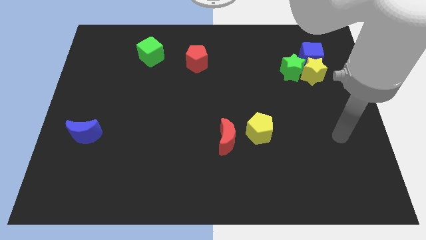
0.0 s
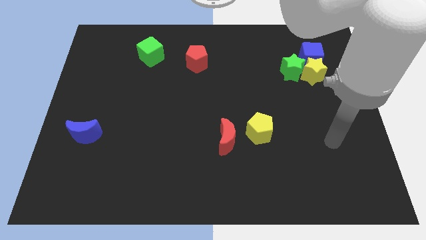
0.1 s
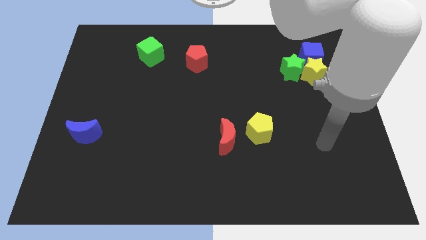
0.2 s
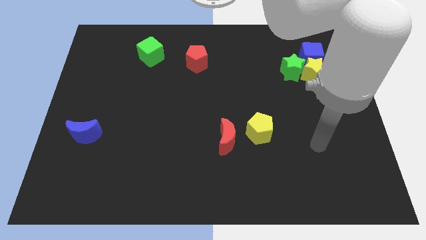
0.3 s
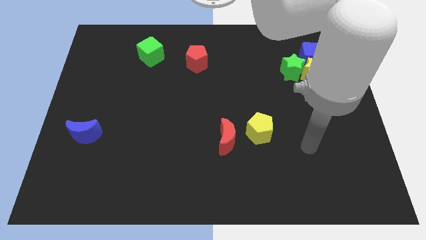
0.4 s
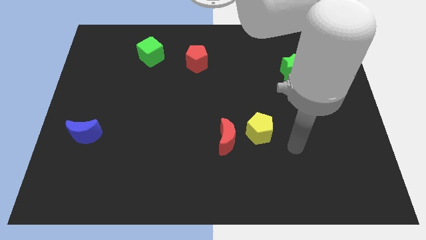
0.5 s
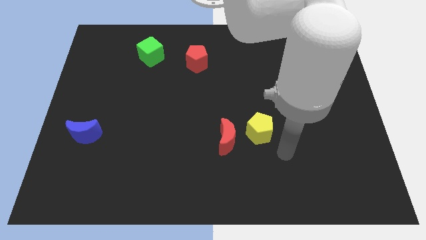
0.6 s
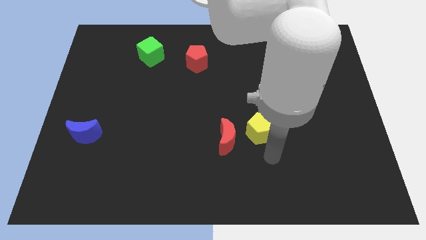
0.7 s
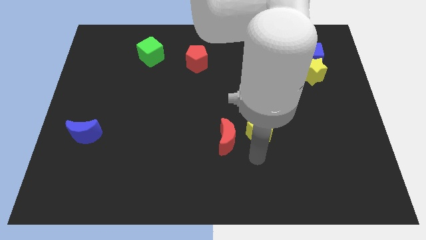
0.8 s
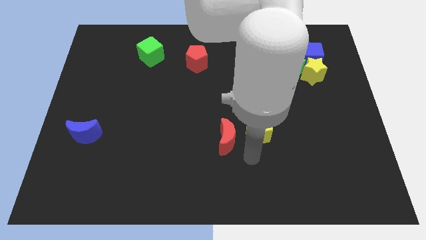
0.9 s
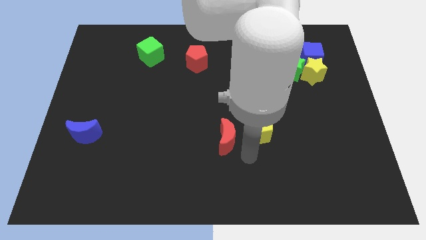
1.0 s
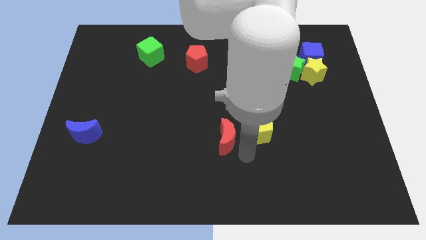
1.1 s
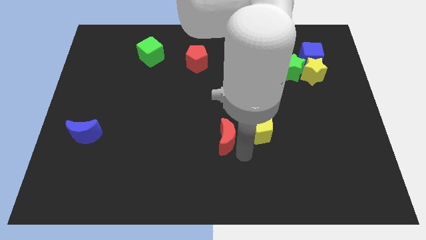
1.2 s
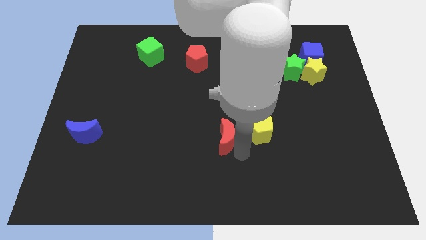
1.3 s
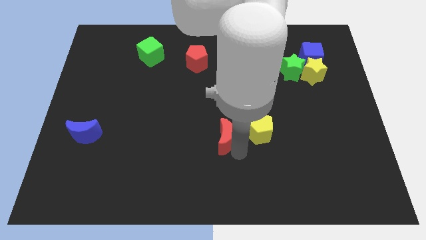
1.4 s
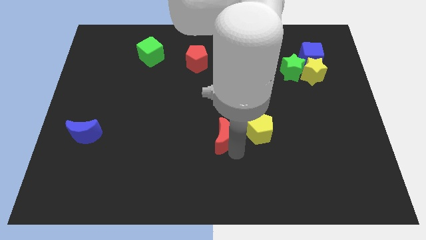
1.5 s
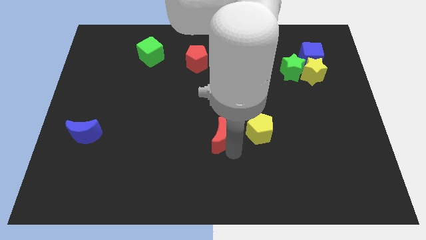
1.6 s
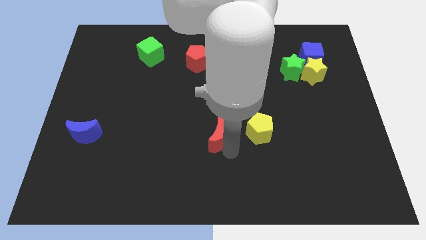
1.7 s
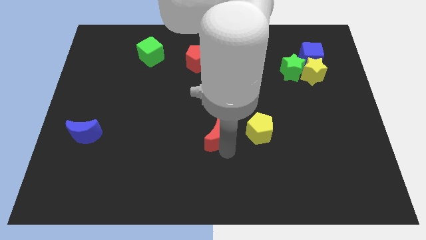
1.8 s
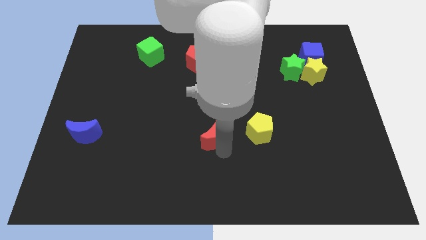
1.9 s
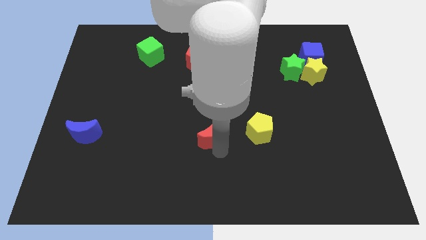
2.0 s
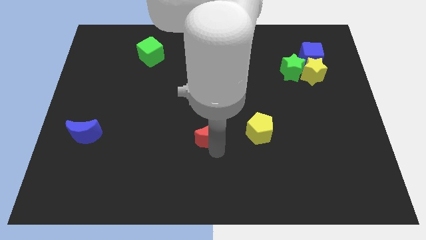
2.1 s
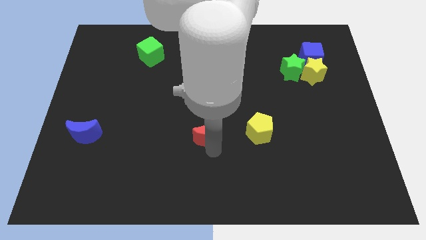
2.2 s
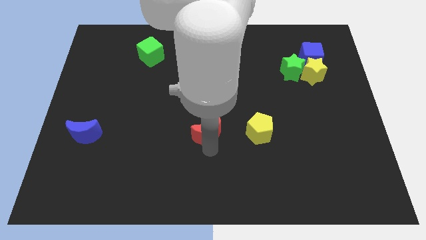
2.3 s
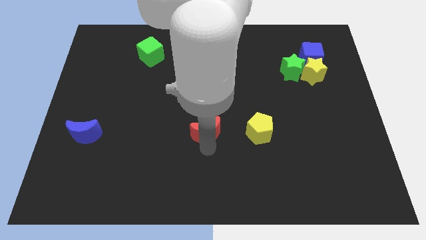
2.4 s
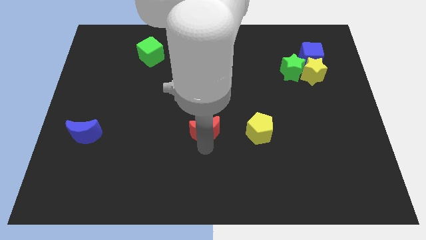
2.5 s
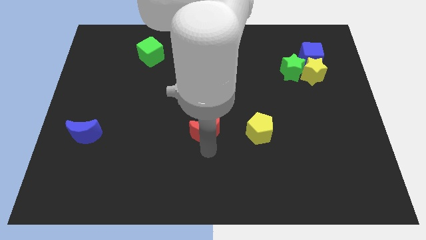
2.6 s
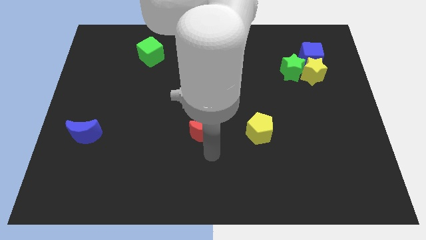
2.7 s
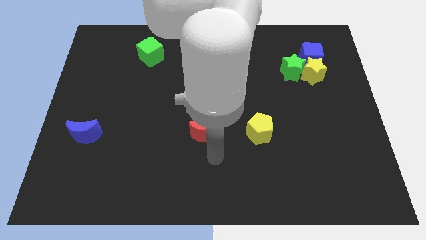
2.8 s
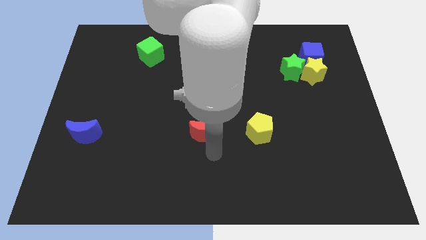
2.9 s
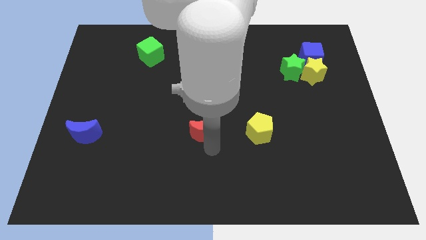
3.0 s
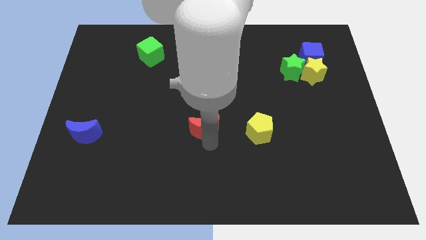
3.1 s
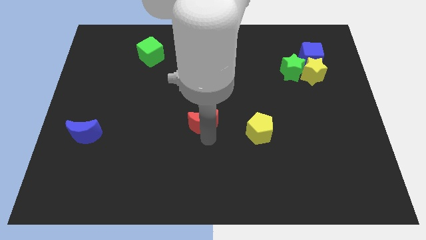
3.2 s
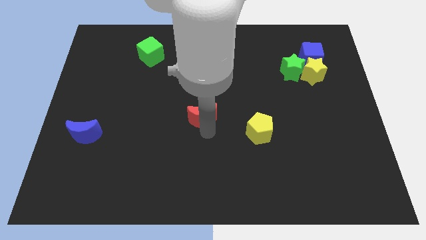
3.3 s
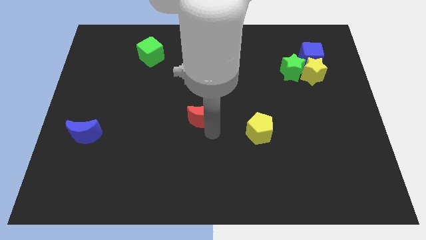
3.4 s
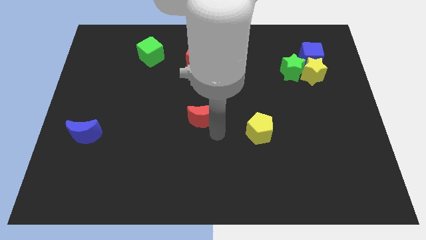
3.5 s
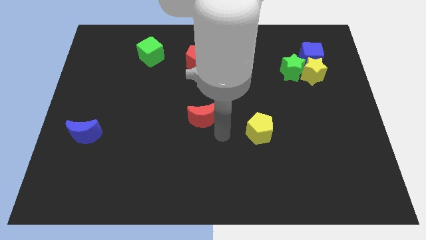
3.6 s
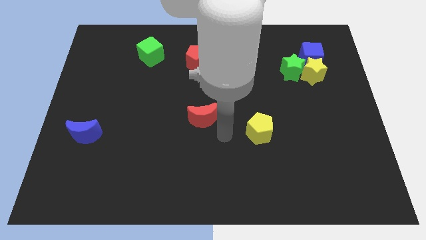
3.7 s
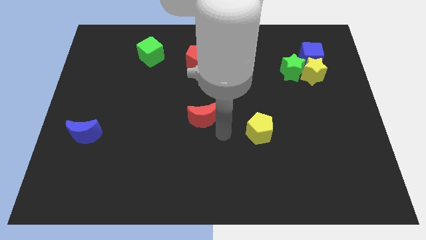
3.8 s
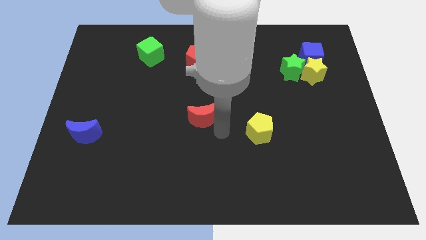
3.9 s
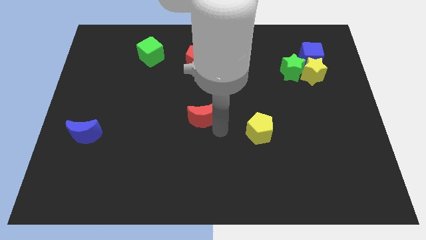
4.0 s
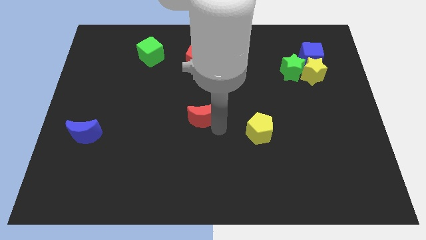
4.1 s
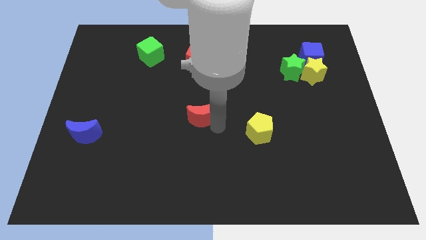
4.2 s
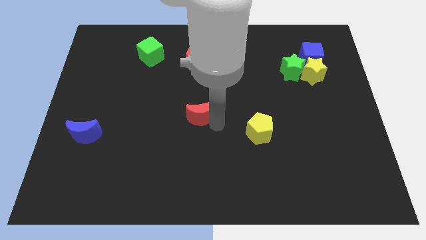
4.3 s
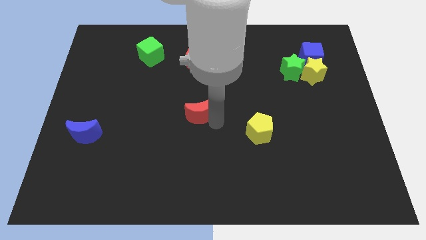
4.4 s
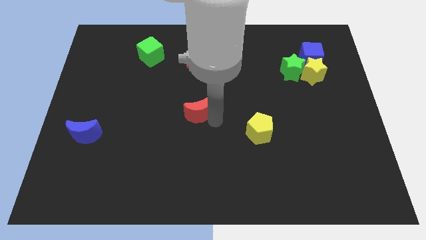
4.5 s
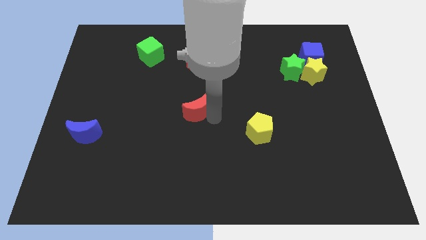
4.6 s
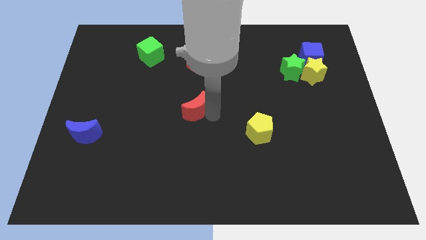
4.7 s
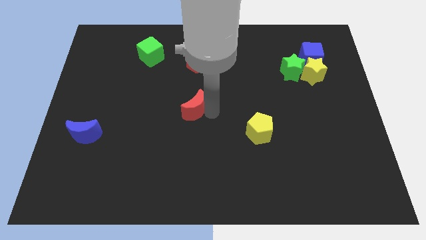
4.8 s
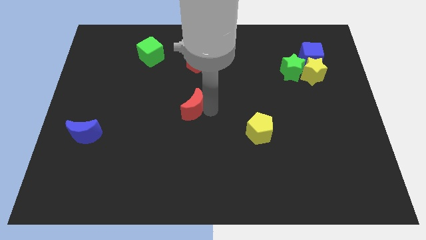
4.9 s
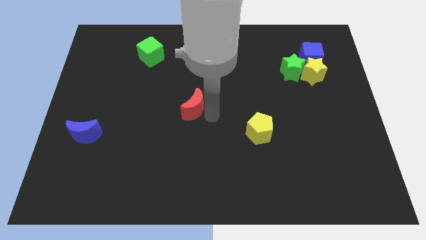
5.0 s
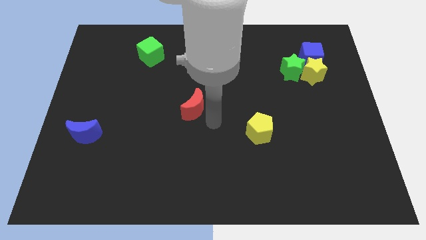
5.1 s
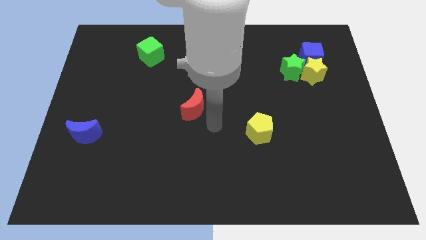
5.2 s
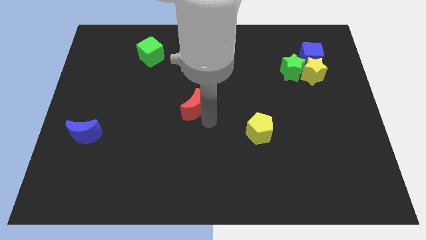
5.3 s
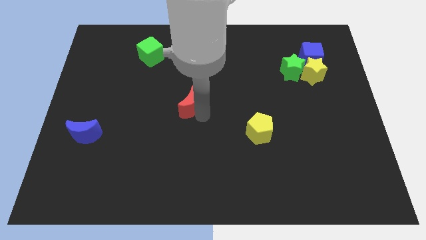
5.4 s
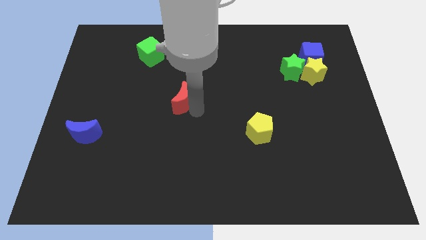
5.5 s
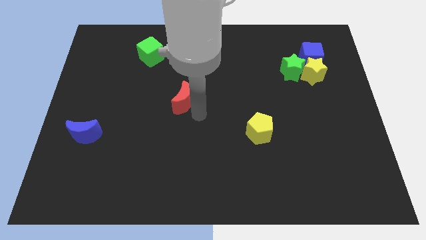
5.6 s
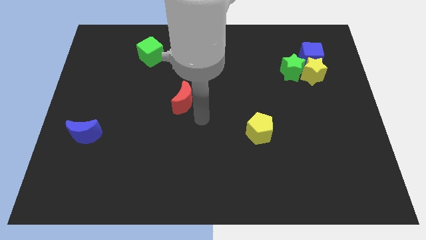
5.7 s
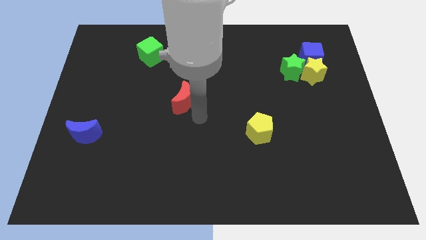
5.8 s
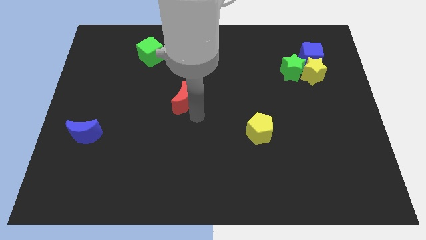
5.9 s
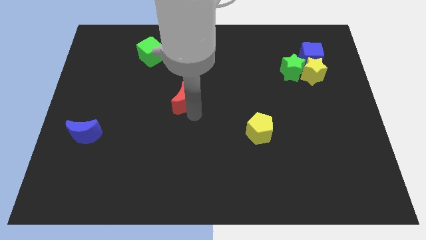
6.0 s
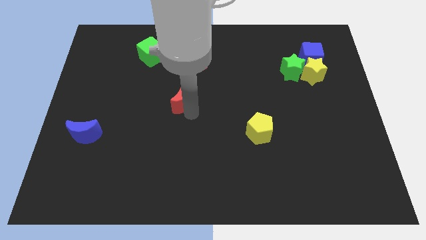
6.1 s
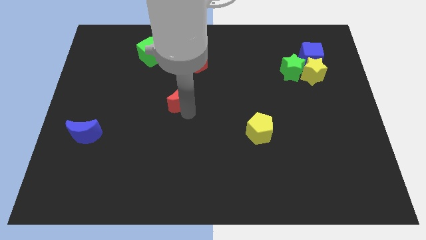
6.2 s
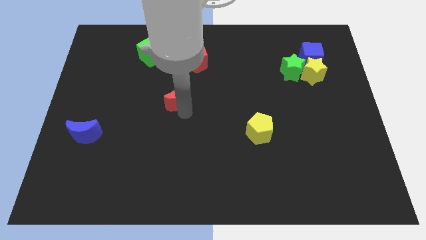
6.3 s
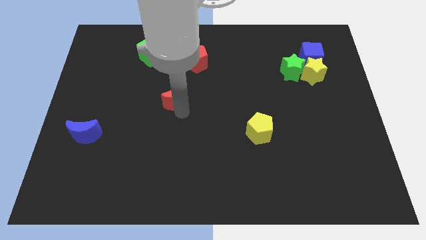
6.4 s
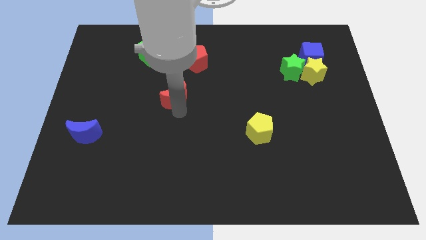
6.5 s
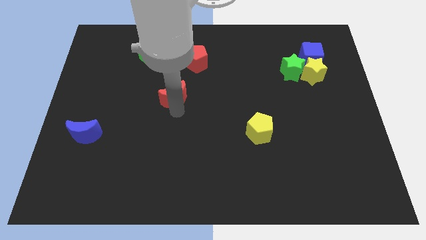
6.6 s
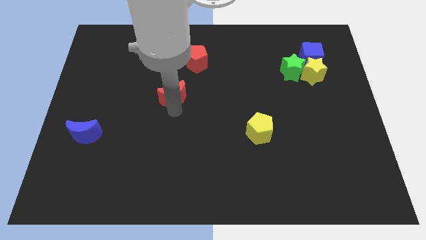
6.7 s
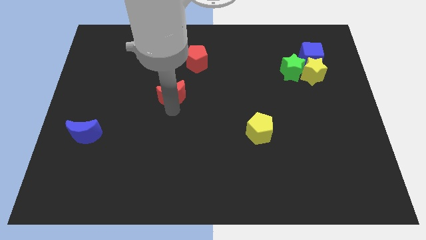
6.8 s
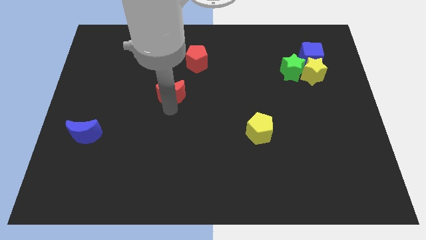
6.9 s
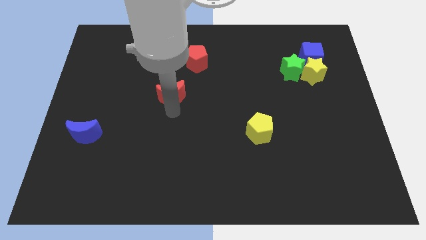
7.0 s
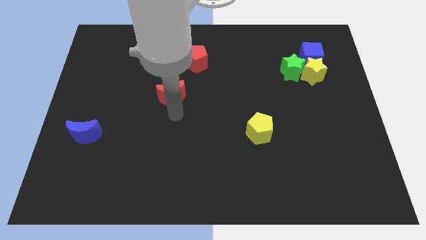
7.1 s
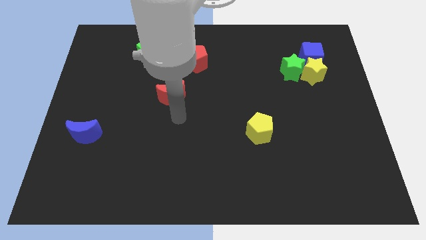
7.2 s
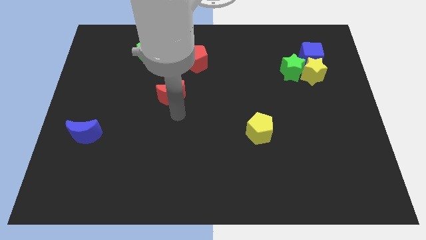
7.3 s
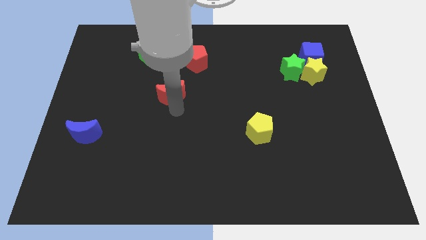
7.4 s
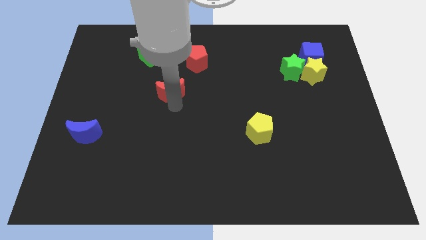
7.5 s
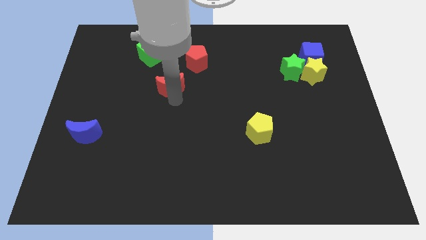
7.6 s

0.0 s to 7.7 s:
move the red moon up and then to the left

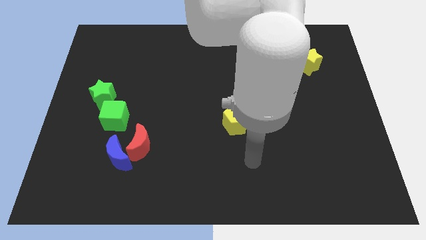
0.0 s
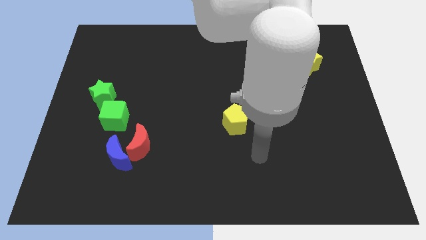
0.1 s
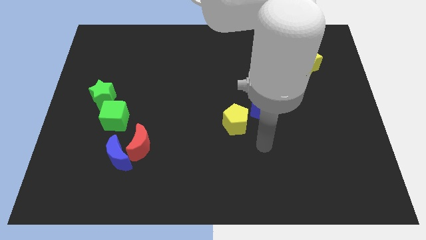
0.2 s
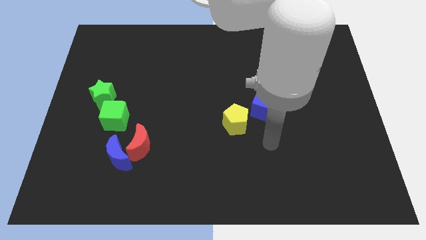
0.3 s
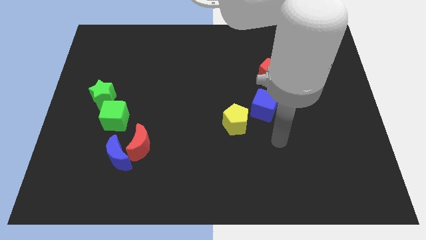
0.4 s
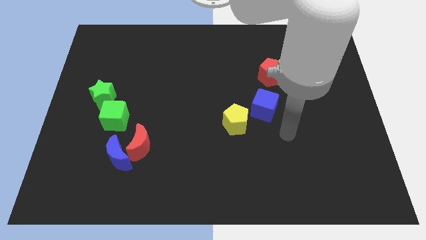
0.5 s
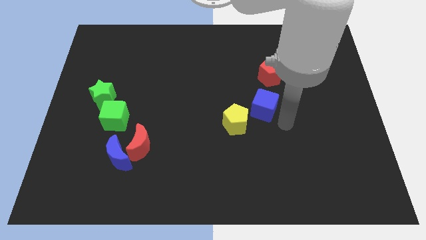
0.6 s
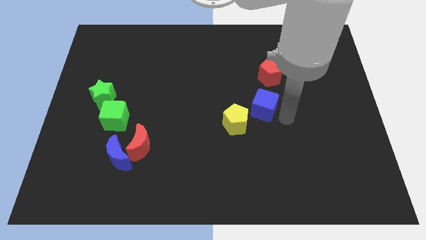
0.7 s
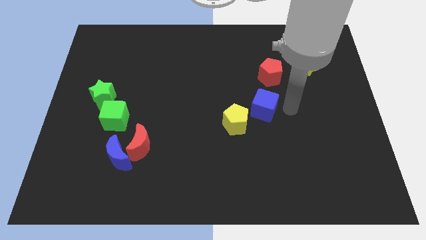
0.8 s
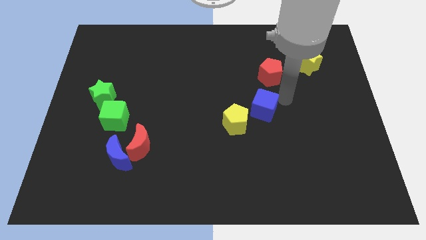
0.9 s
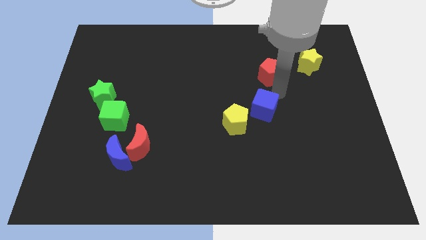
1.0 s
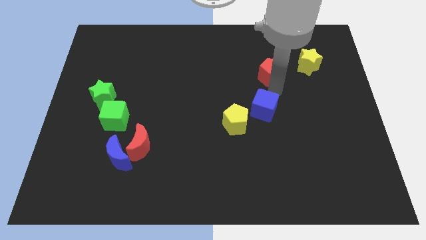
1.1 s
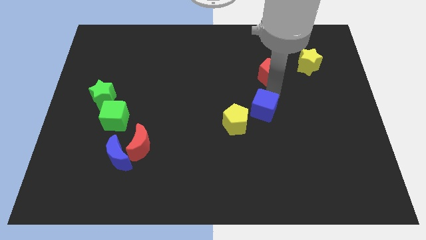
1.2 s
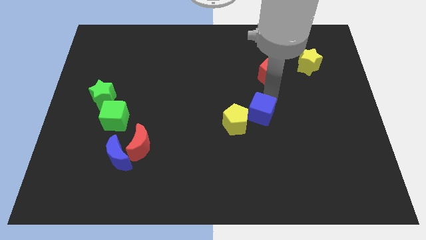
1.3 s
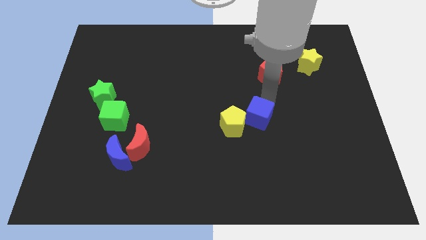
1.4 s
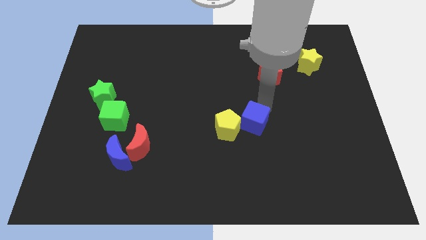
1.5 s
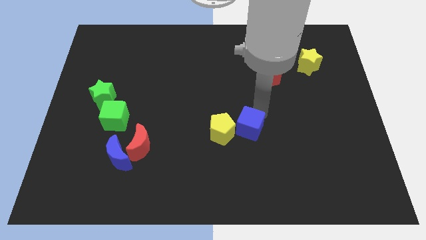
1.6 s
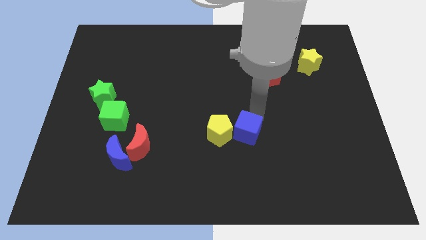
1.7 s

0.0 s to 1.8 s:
push the blue cube slightly down and then to the left
